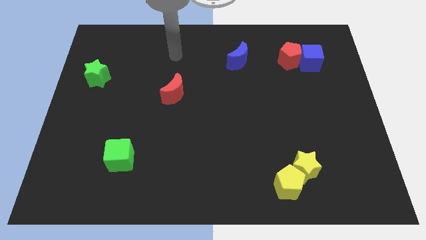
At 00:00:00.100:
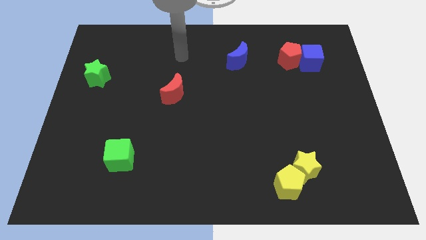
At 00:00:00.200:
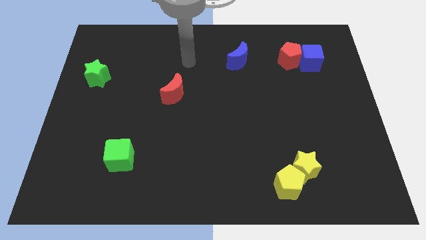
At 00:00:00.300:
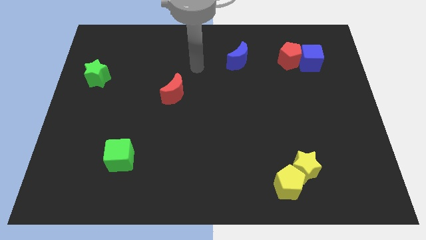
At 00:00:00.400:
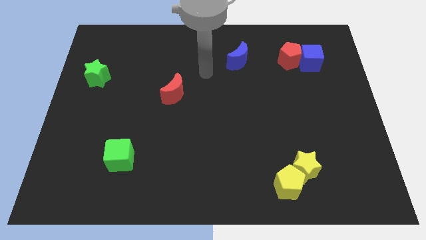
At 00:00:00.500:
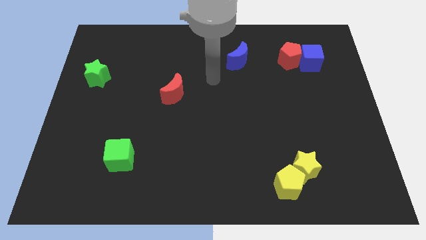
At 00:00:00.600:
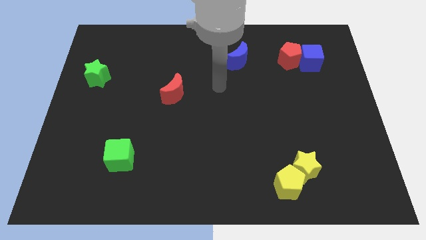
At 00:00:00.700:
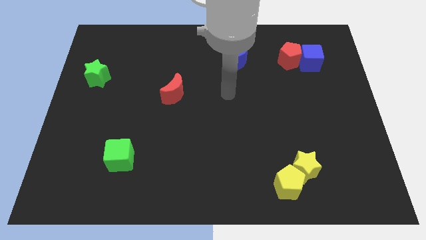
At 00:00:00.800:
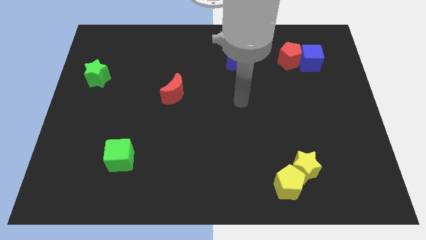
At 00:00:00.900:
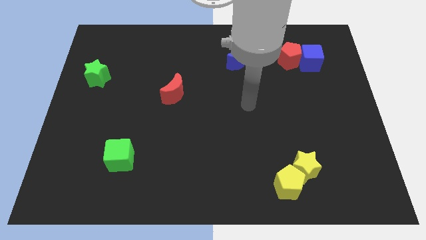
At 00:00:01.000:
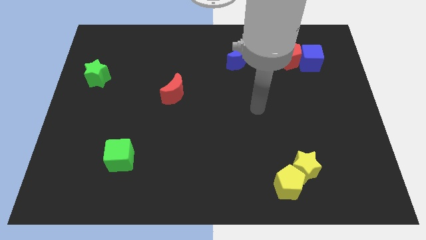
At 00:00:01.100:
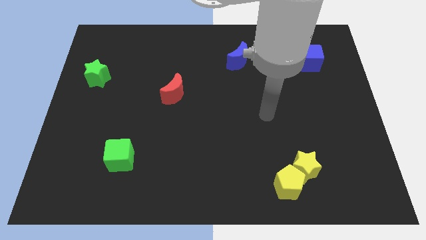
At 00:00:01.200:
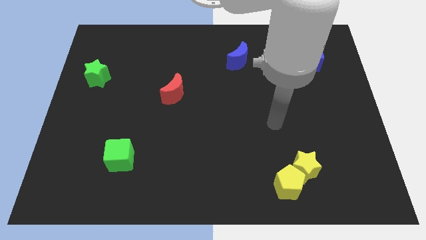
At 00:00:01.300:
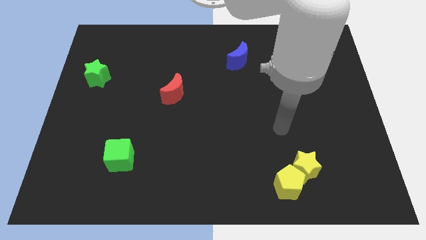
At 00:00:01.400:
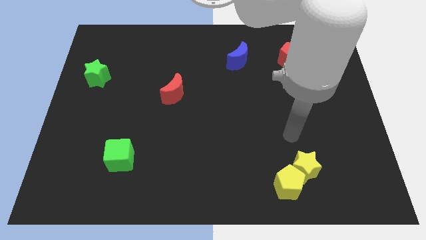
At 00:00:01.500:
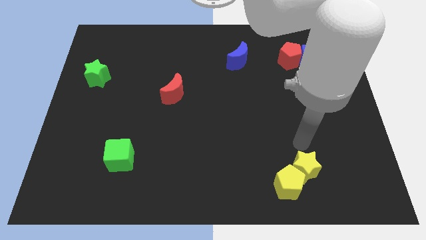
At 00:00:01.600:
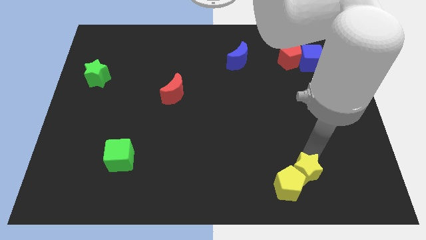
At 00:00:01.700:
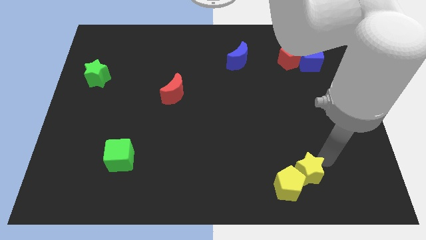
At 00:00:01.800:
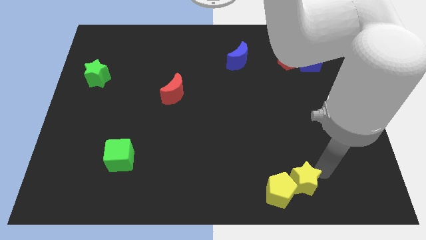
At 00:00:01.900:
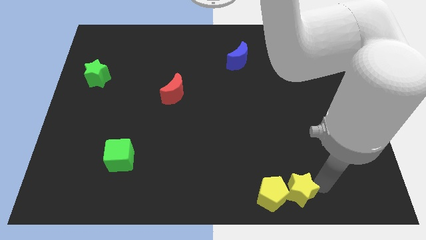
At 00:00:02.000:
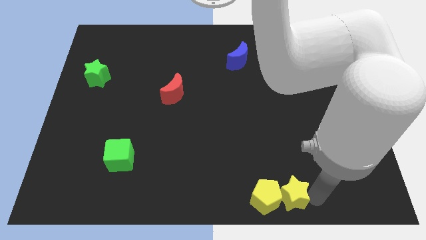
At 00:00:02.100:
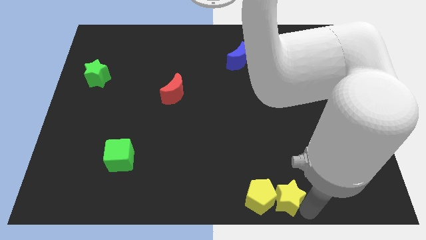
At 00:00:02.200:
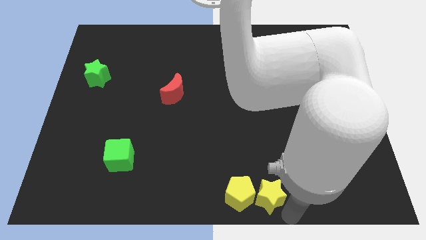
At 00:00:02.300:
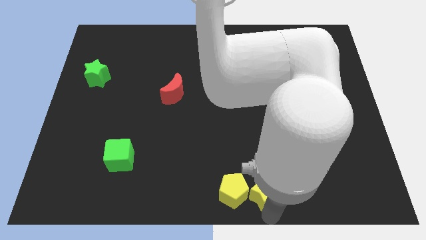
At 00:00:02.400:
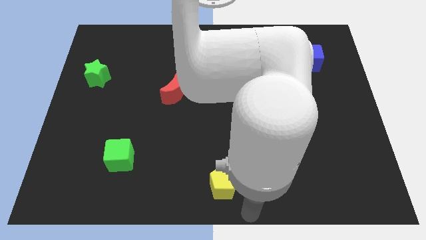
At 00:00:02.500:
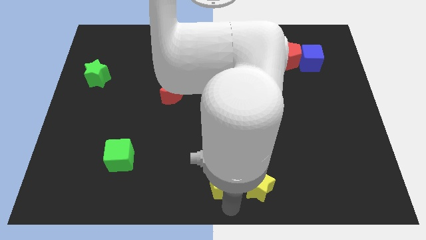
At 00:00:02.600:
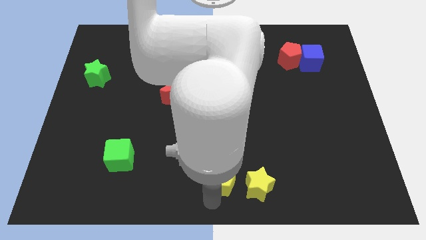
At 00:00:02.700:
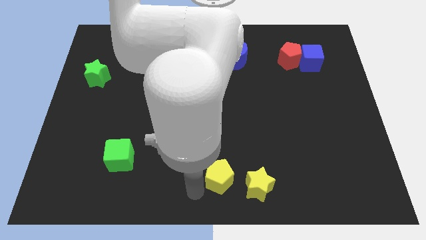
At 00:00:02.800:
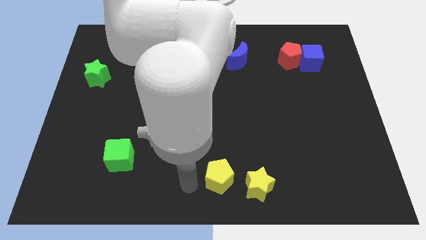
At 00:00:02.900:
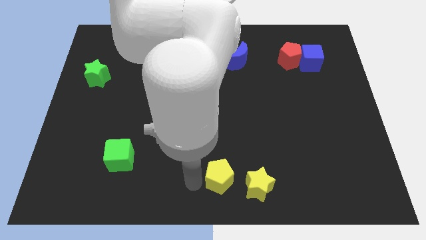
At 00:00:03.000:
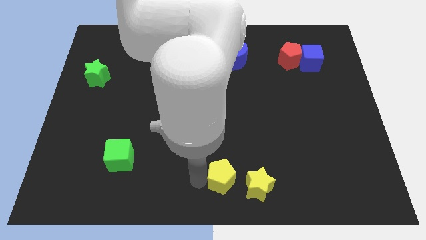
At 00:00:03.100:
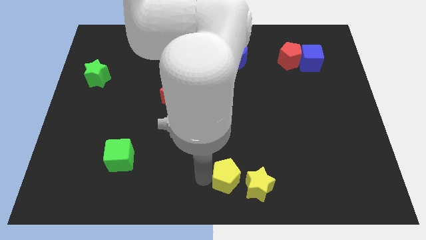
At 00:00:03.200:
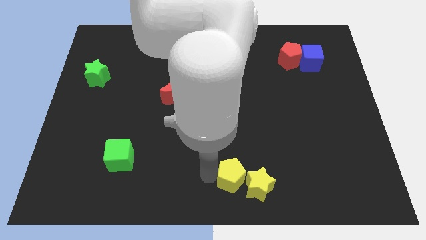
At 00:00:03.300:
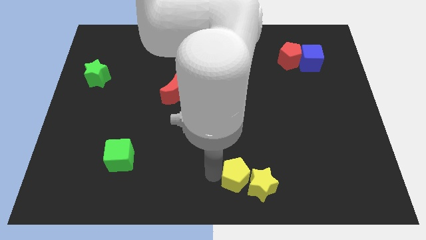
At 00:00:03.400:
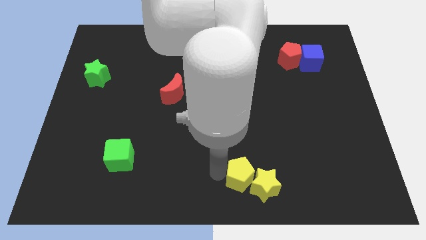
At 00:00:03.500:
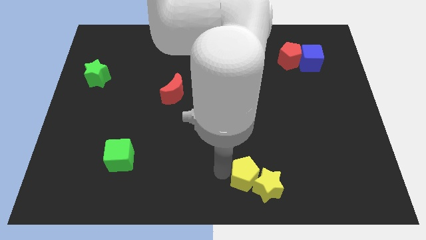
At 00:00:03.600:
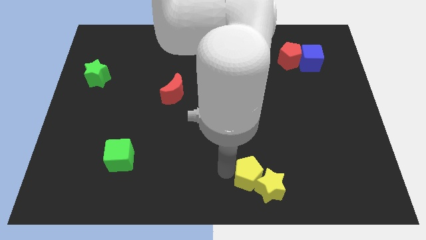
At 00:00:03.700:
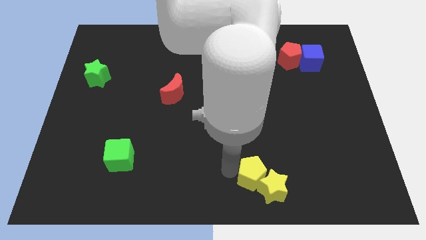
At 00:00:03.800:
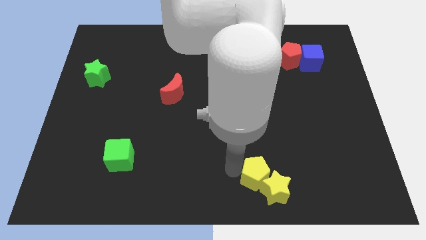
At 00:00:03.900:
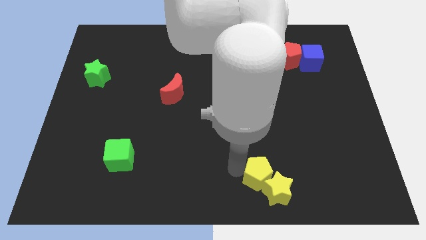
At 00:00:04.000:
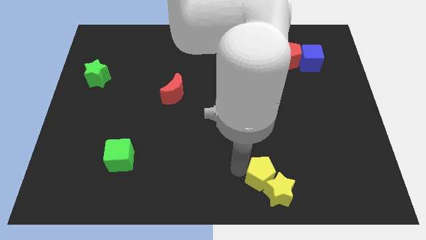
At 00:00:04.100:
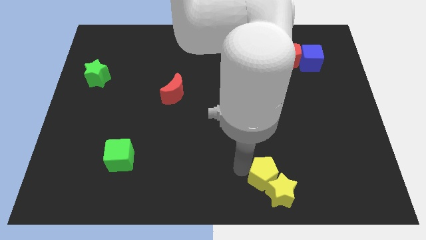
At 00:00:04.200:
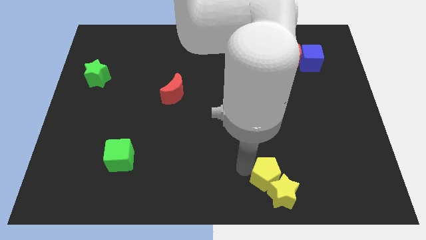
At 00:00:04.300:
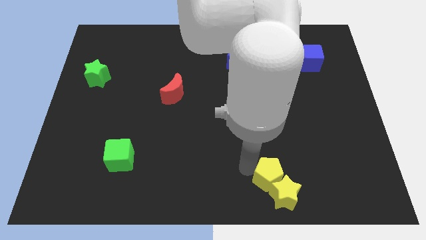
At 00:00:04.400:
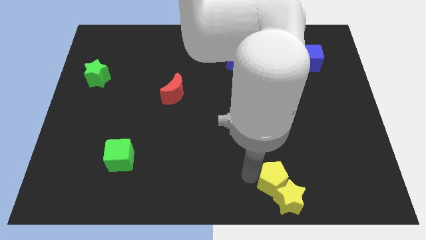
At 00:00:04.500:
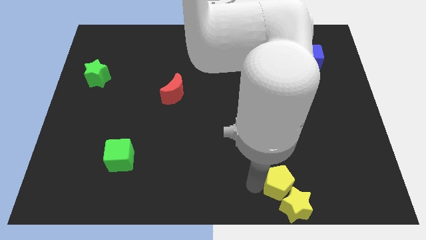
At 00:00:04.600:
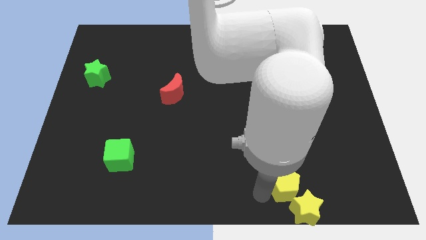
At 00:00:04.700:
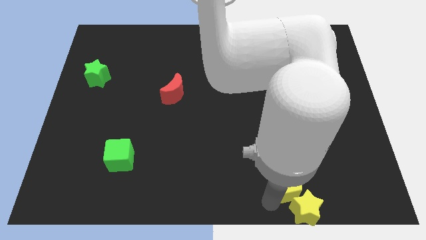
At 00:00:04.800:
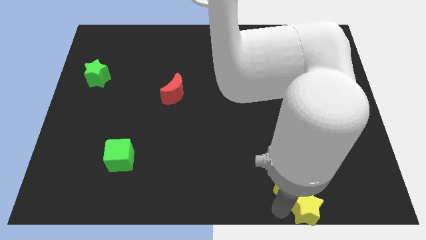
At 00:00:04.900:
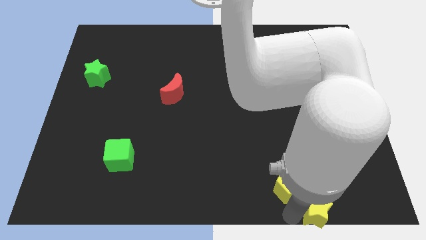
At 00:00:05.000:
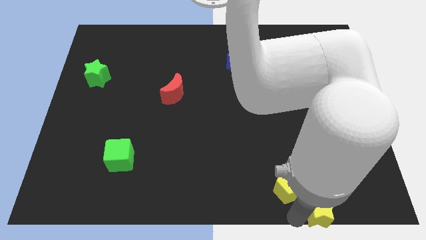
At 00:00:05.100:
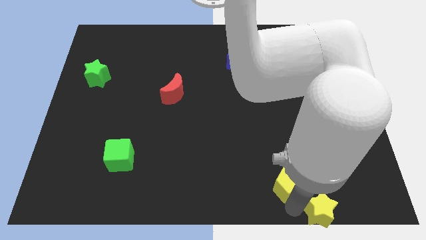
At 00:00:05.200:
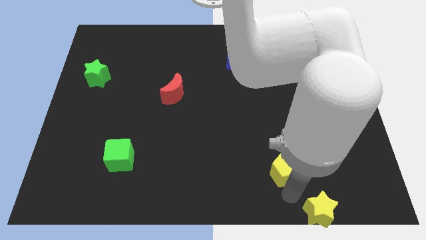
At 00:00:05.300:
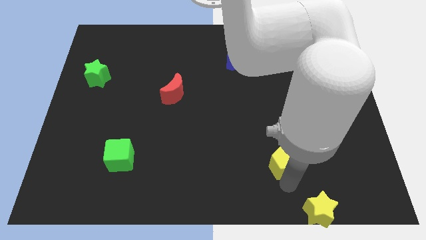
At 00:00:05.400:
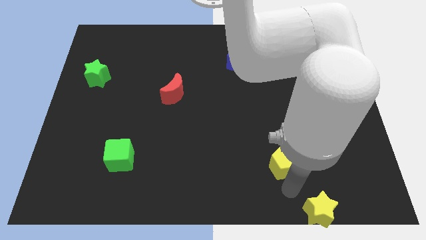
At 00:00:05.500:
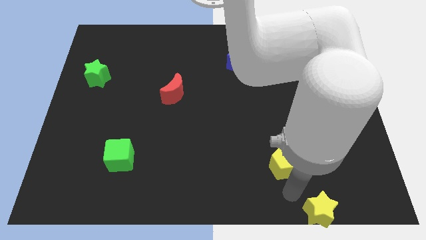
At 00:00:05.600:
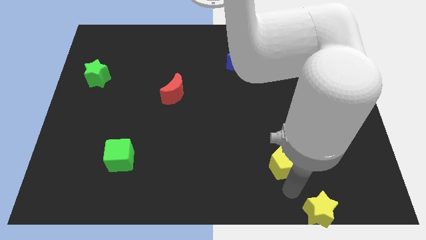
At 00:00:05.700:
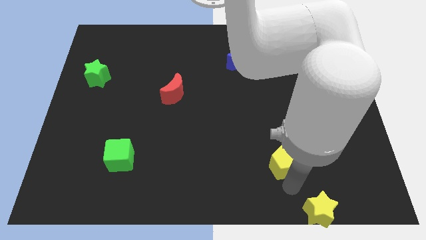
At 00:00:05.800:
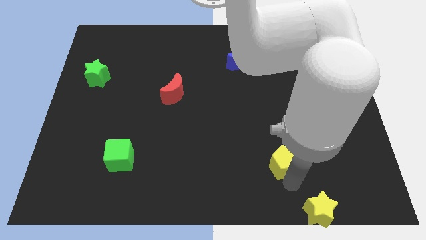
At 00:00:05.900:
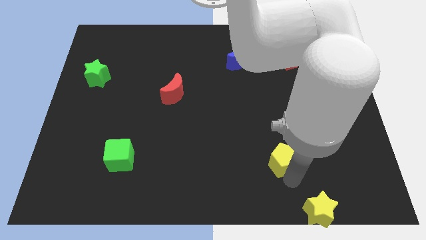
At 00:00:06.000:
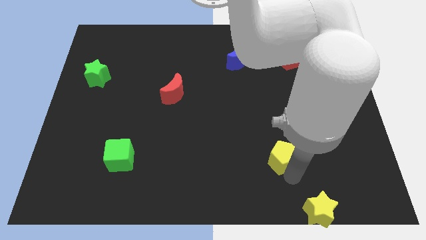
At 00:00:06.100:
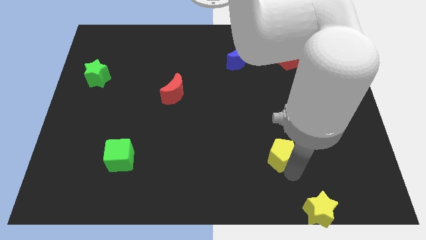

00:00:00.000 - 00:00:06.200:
slide the yellow pentagon a little bit upwards

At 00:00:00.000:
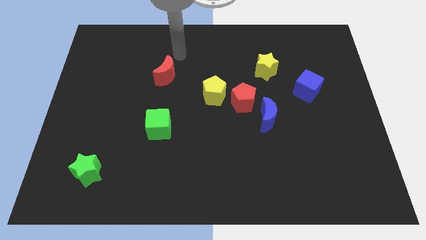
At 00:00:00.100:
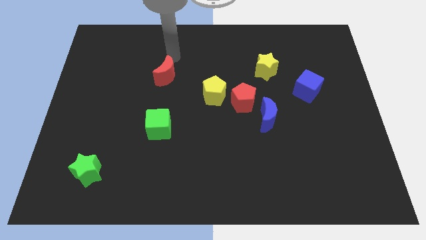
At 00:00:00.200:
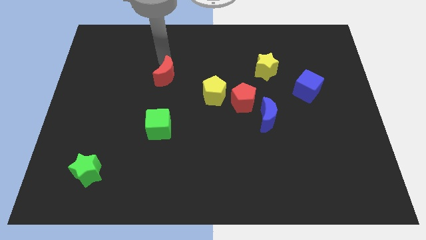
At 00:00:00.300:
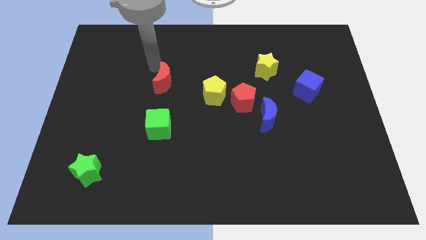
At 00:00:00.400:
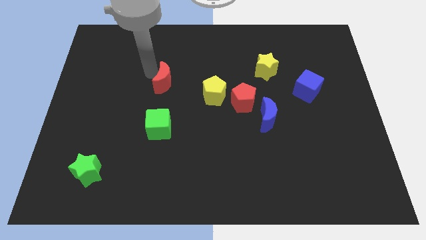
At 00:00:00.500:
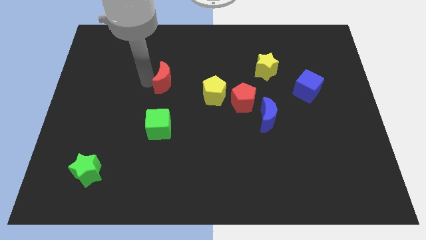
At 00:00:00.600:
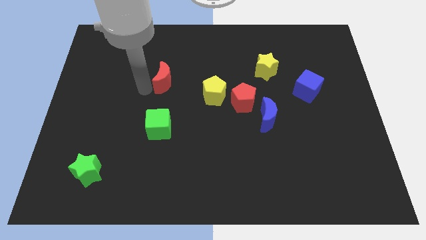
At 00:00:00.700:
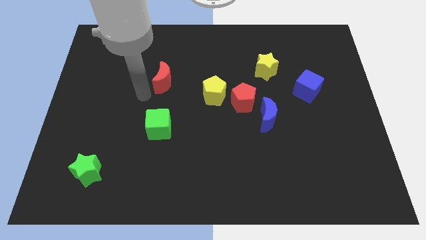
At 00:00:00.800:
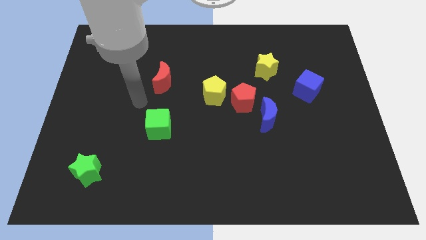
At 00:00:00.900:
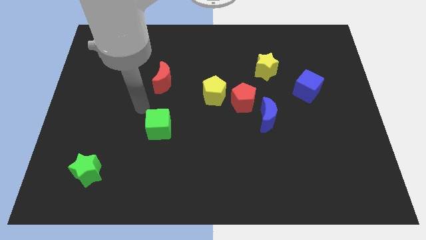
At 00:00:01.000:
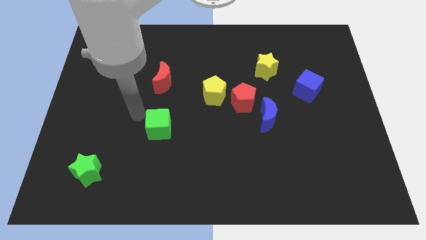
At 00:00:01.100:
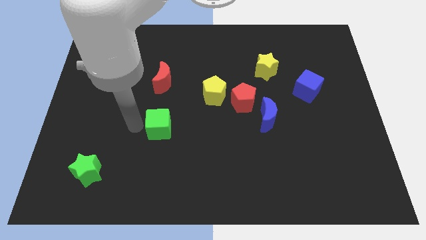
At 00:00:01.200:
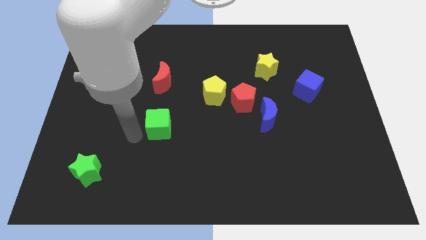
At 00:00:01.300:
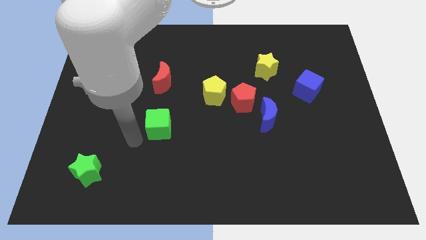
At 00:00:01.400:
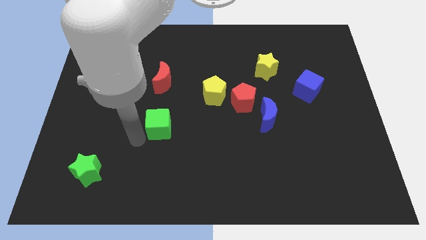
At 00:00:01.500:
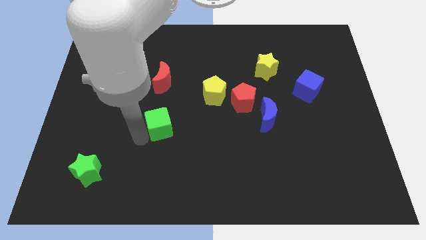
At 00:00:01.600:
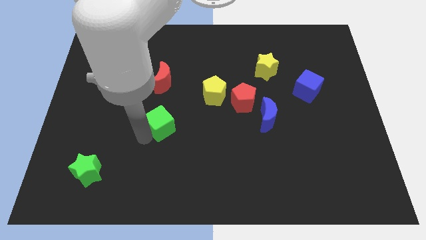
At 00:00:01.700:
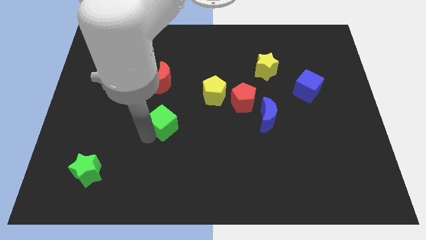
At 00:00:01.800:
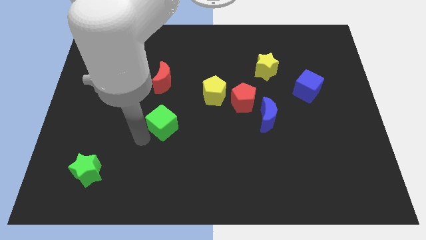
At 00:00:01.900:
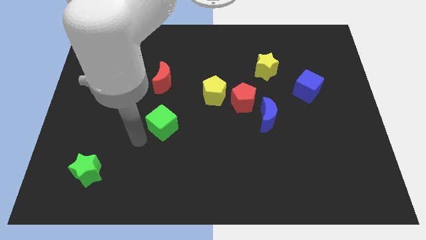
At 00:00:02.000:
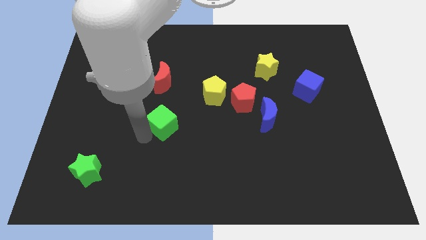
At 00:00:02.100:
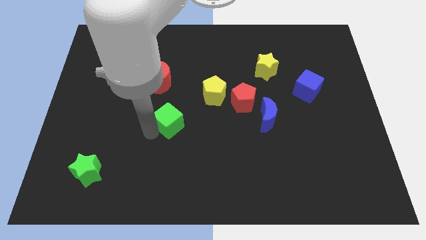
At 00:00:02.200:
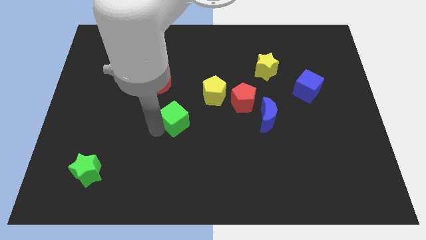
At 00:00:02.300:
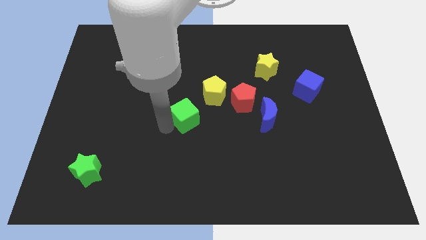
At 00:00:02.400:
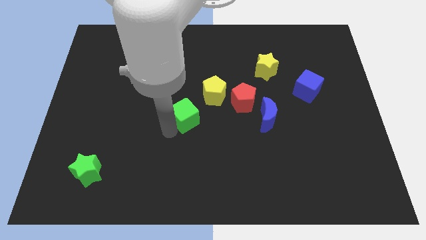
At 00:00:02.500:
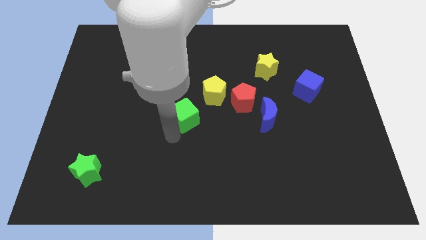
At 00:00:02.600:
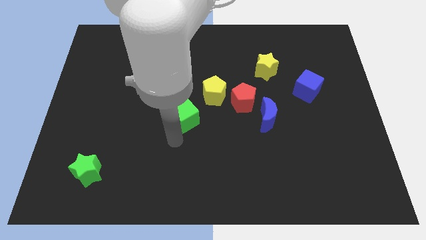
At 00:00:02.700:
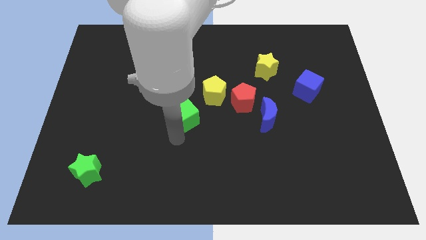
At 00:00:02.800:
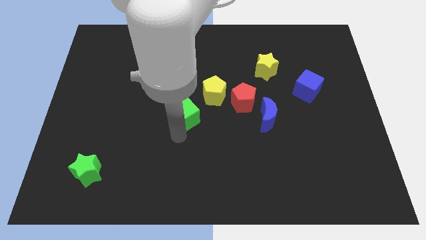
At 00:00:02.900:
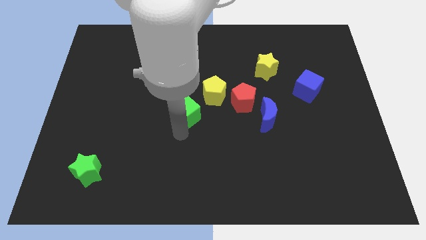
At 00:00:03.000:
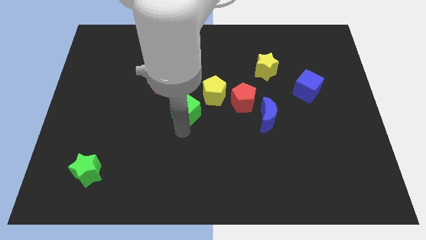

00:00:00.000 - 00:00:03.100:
move the green cube slightly up and right diagonally
